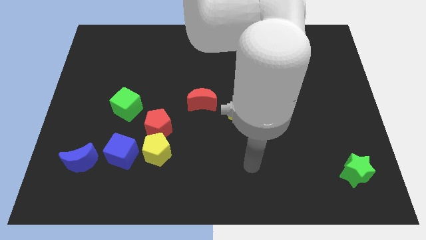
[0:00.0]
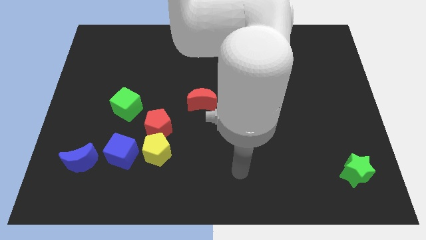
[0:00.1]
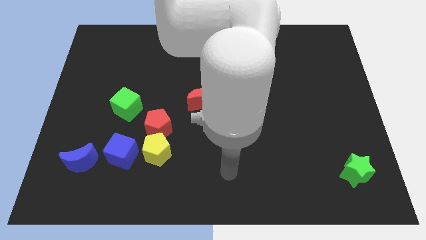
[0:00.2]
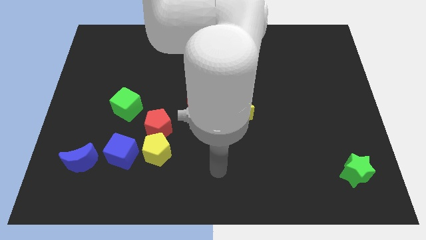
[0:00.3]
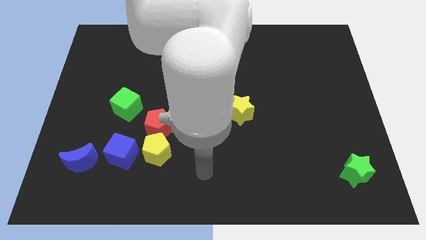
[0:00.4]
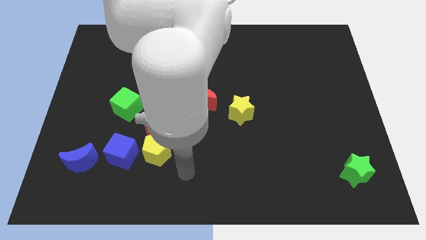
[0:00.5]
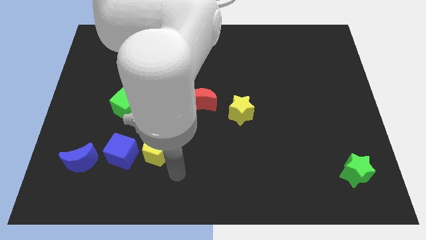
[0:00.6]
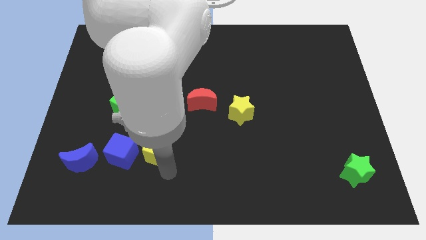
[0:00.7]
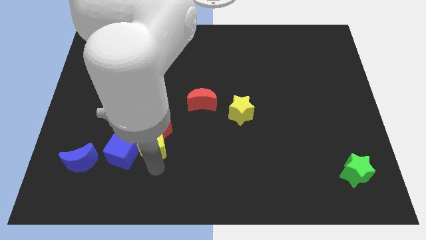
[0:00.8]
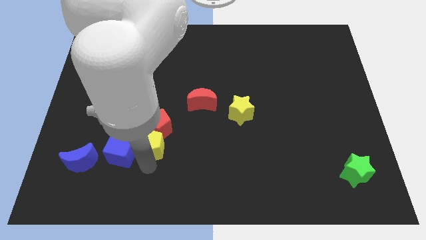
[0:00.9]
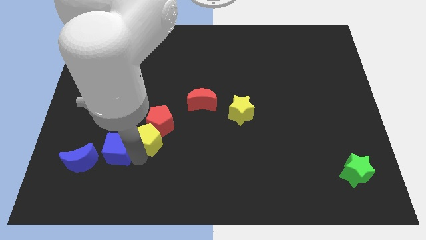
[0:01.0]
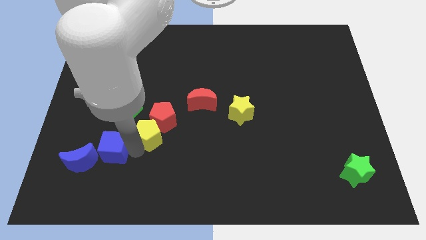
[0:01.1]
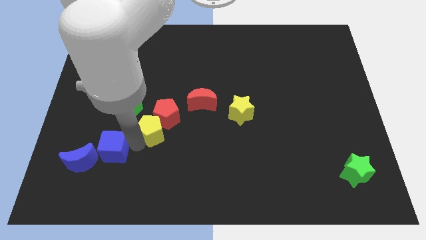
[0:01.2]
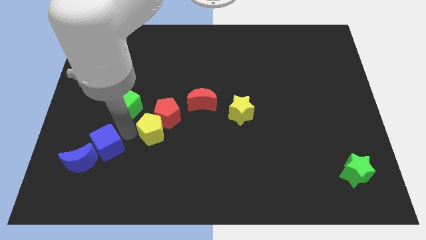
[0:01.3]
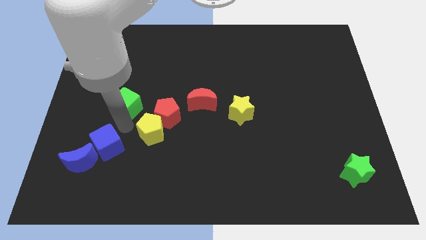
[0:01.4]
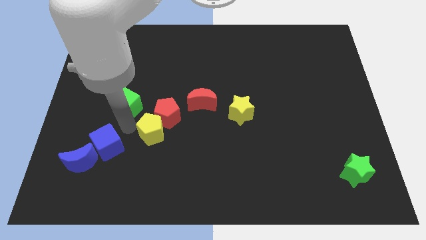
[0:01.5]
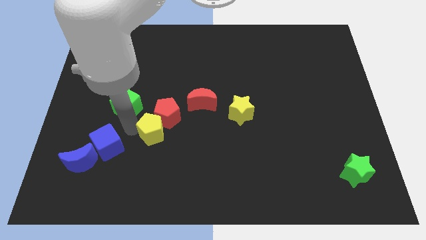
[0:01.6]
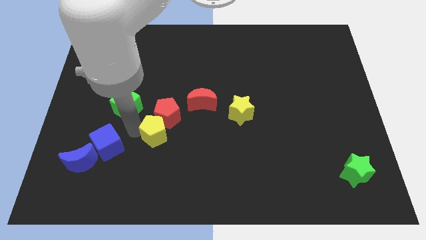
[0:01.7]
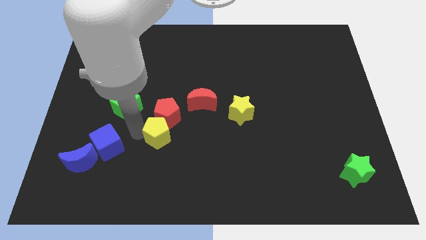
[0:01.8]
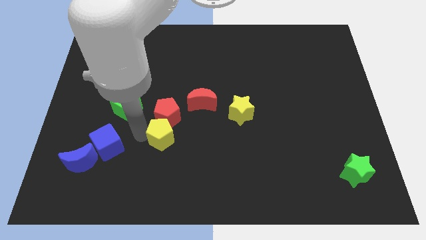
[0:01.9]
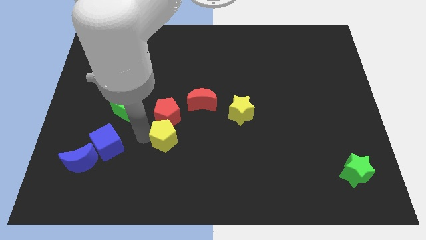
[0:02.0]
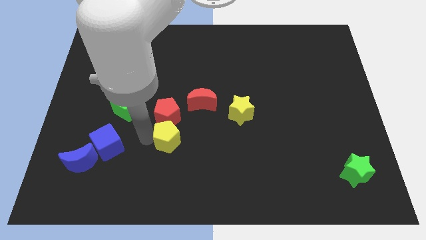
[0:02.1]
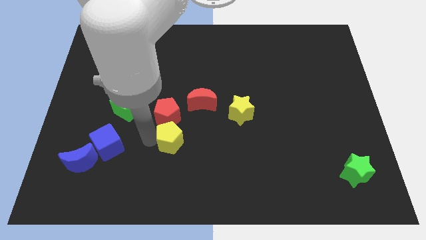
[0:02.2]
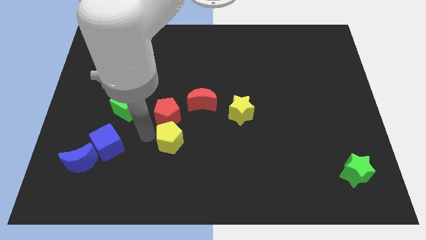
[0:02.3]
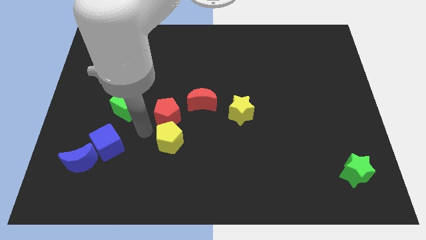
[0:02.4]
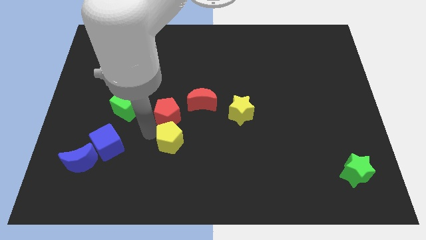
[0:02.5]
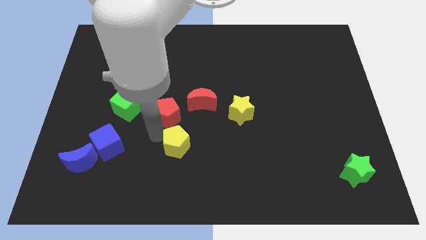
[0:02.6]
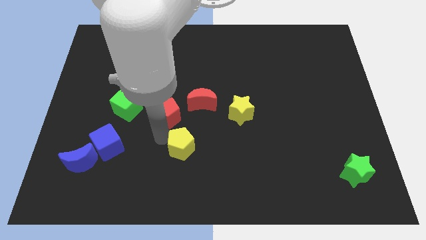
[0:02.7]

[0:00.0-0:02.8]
move the yellow pentagon away from the red pentagon and blue cube

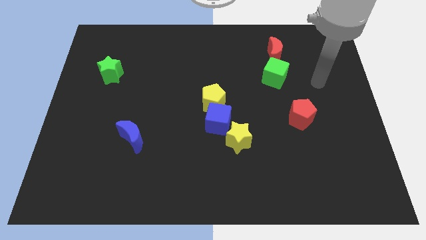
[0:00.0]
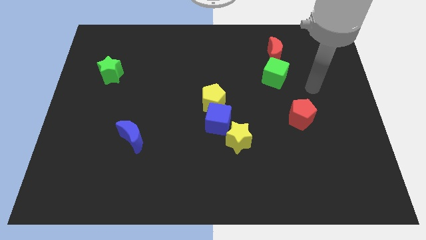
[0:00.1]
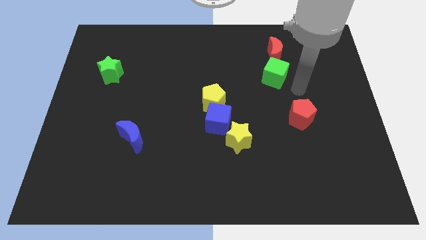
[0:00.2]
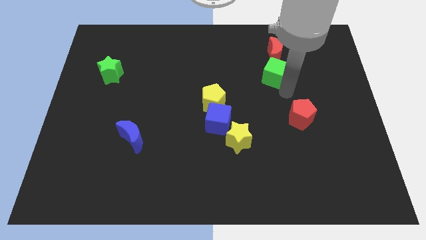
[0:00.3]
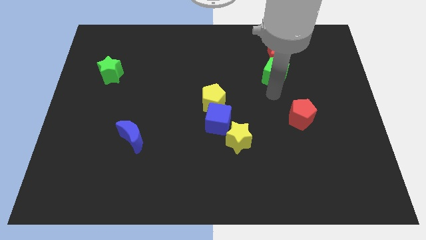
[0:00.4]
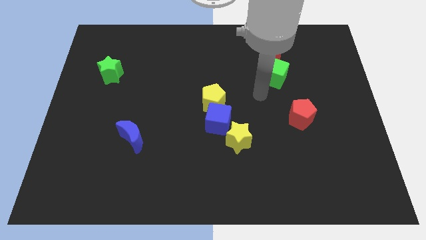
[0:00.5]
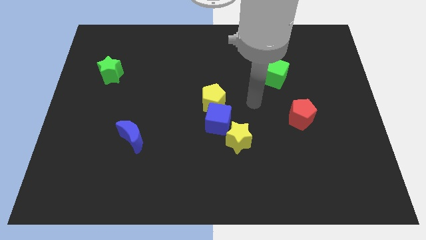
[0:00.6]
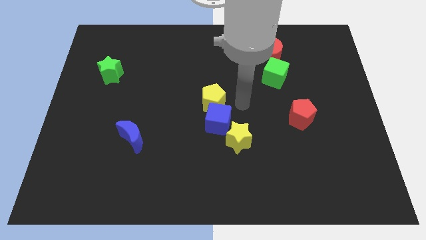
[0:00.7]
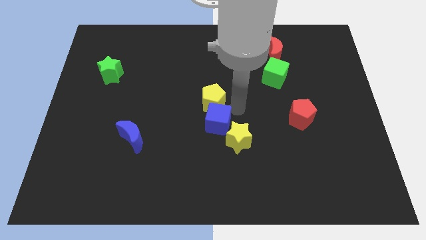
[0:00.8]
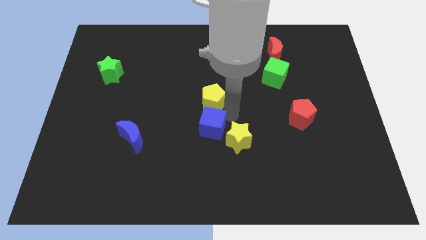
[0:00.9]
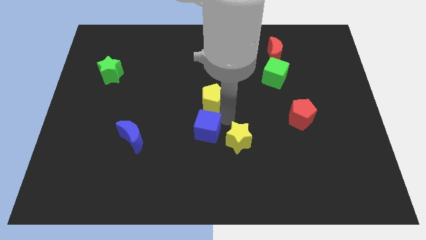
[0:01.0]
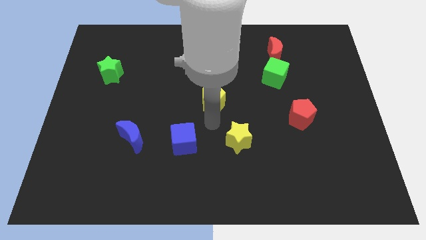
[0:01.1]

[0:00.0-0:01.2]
move the yellow pentagon away from the blue cube

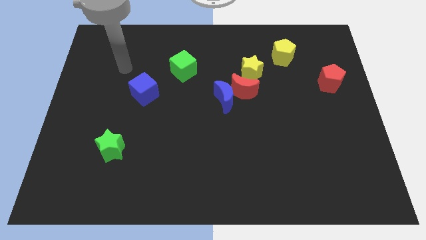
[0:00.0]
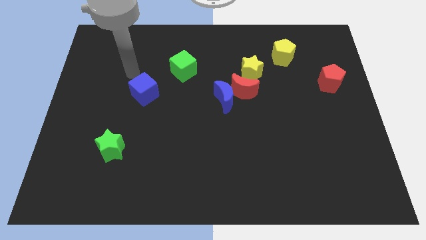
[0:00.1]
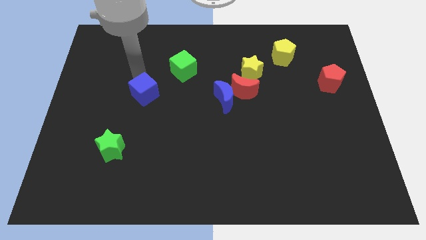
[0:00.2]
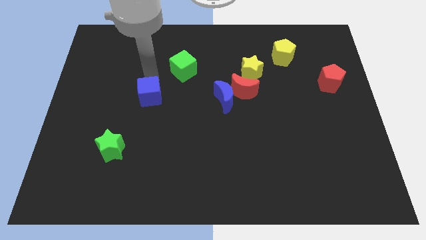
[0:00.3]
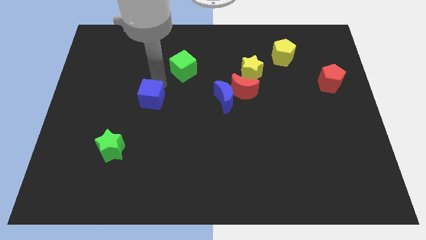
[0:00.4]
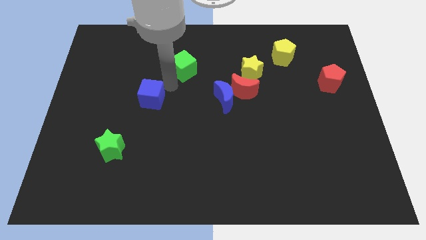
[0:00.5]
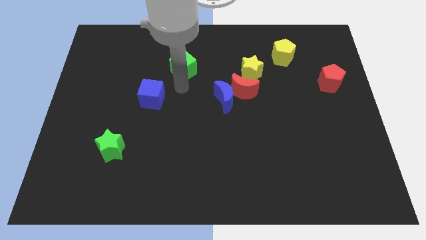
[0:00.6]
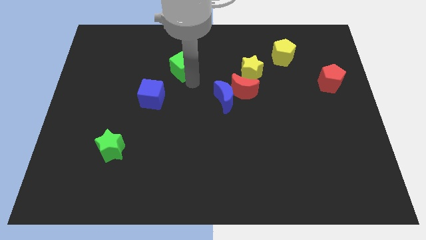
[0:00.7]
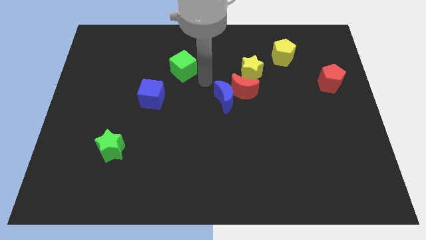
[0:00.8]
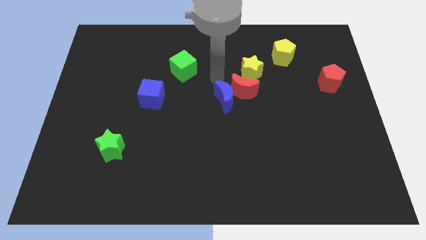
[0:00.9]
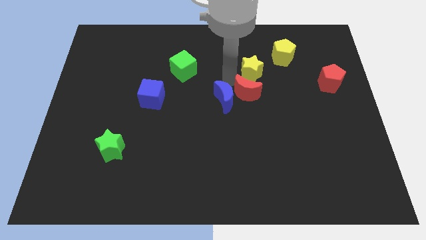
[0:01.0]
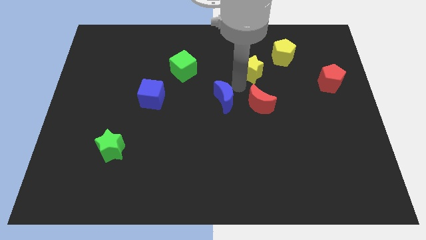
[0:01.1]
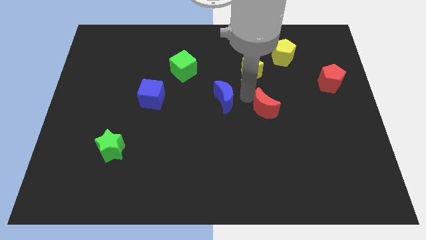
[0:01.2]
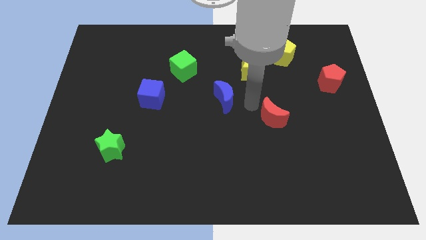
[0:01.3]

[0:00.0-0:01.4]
separate the blue moon from the red moon

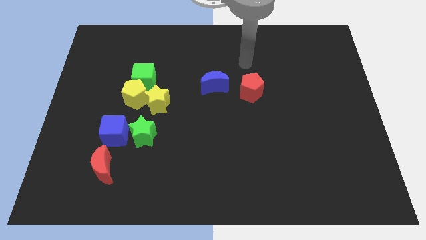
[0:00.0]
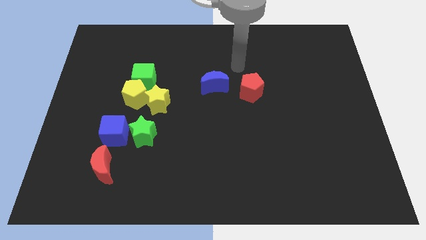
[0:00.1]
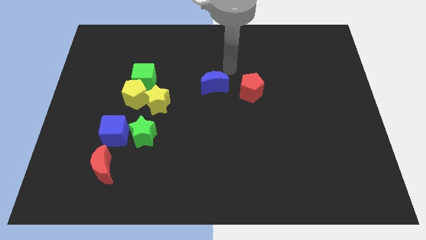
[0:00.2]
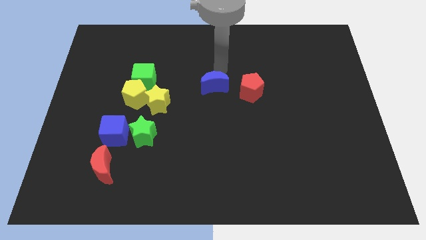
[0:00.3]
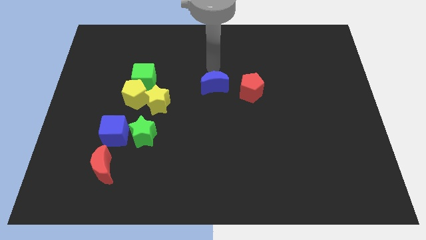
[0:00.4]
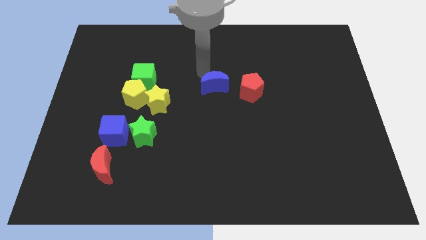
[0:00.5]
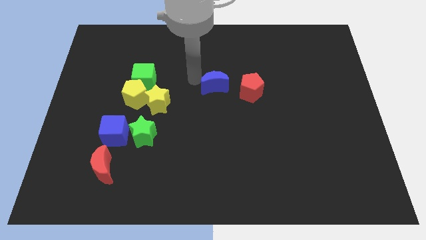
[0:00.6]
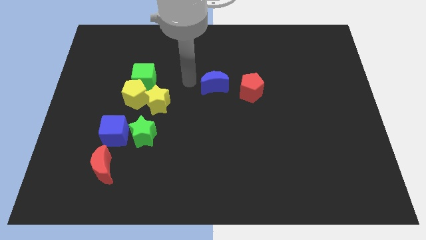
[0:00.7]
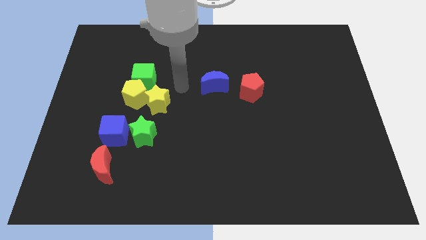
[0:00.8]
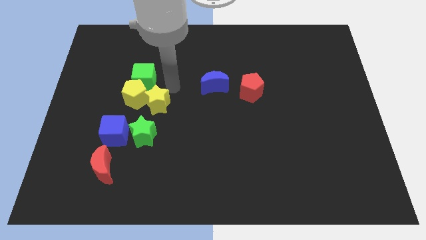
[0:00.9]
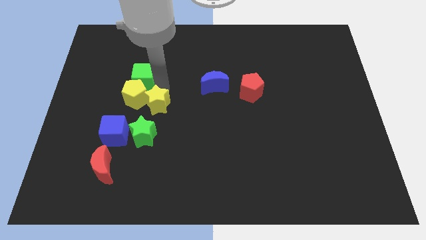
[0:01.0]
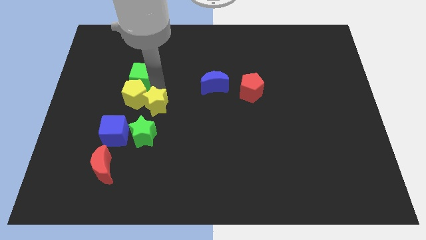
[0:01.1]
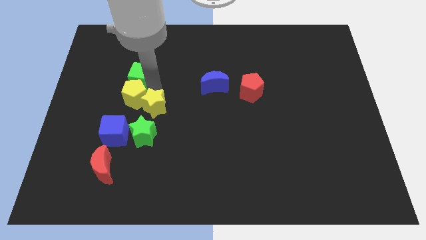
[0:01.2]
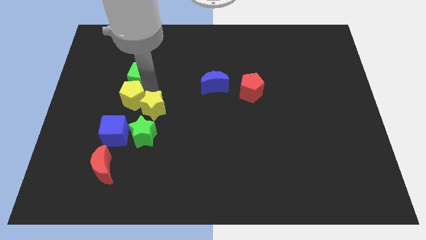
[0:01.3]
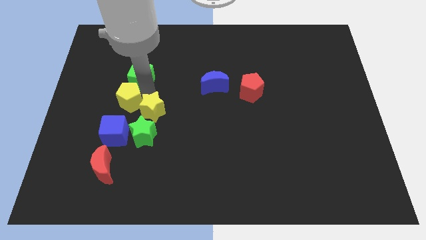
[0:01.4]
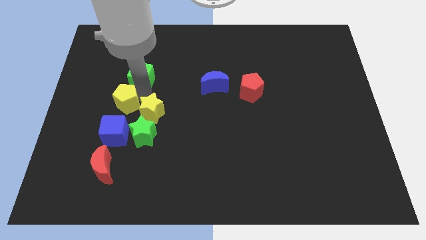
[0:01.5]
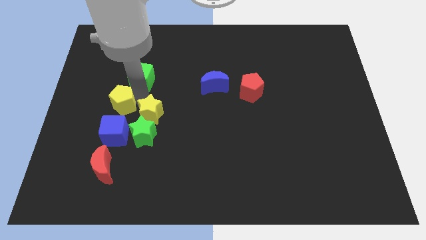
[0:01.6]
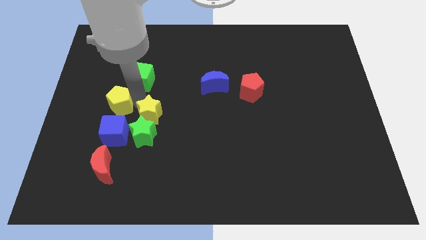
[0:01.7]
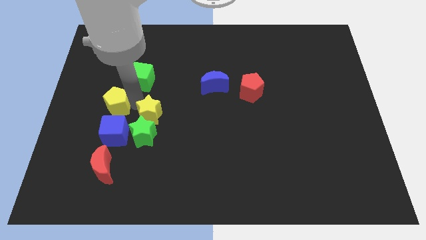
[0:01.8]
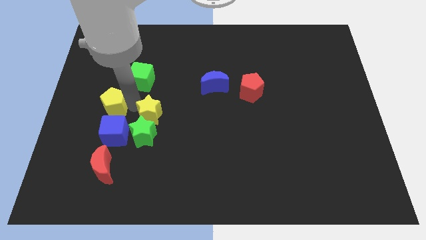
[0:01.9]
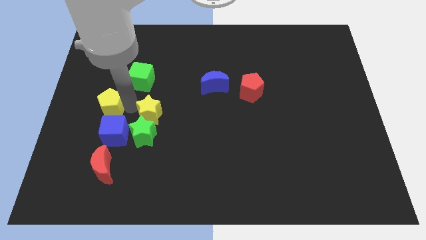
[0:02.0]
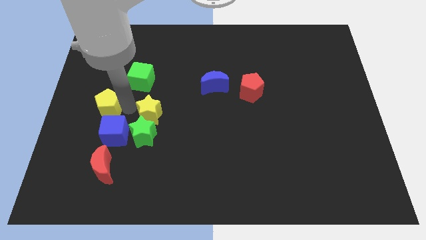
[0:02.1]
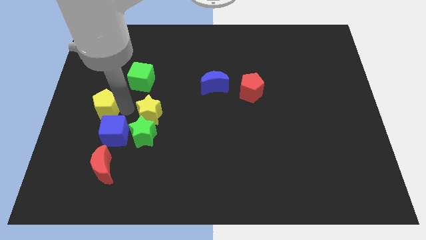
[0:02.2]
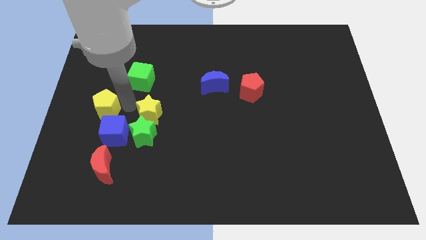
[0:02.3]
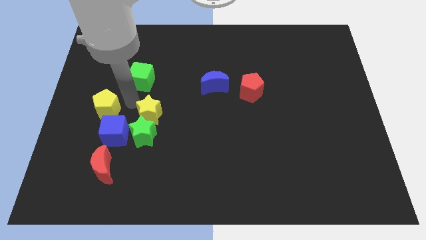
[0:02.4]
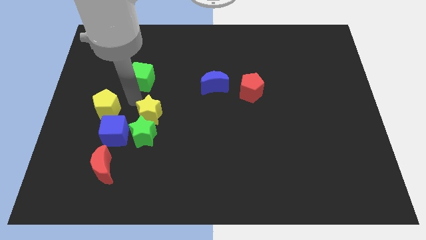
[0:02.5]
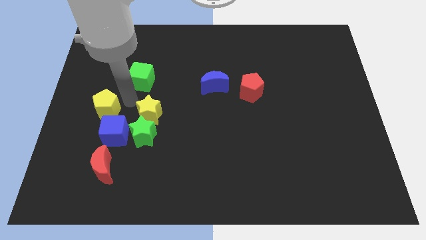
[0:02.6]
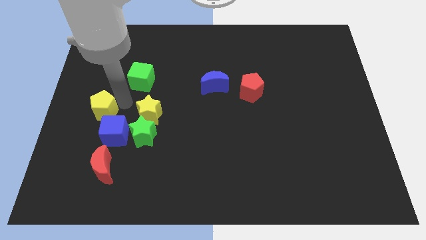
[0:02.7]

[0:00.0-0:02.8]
move the yellow pentagon away from the green cube and yellow star

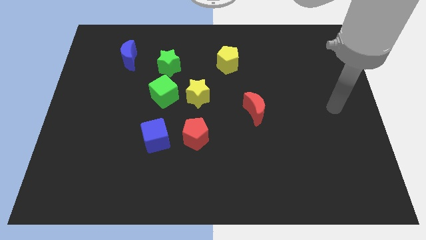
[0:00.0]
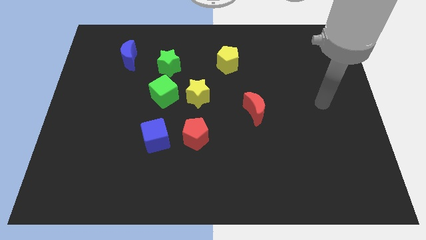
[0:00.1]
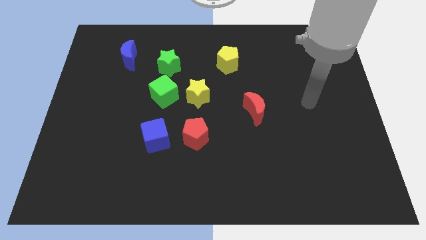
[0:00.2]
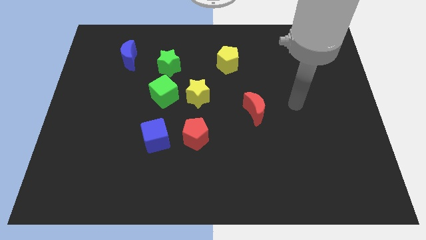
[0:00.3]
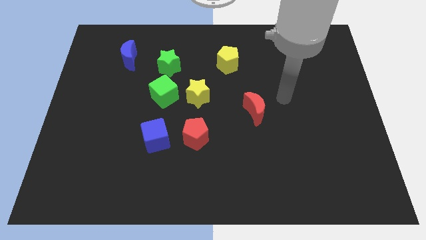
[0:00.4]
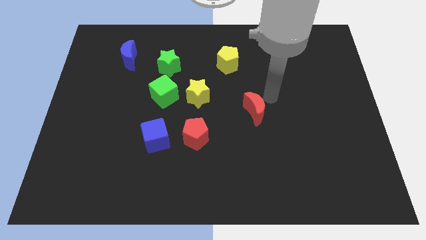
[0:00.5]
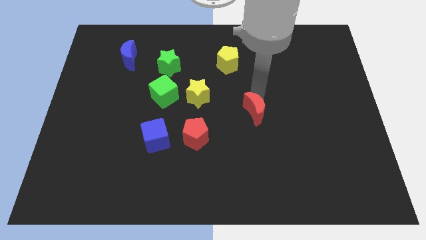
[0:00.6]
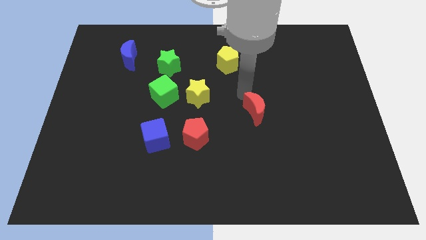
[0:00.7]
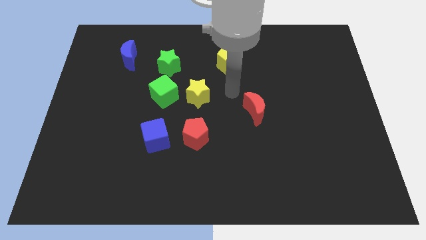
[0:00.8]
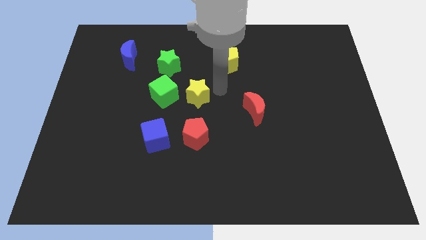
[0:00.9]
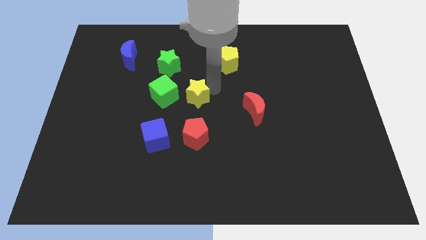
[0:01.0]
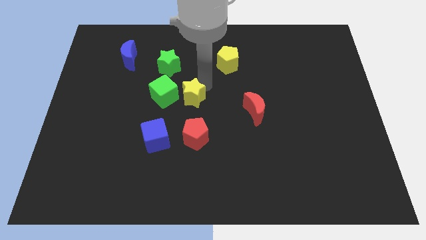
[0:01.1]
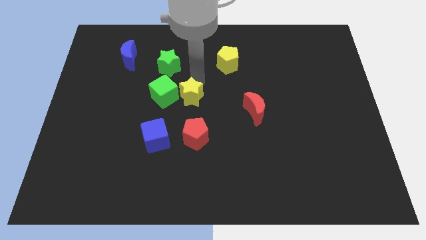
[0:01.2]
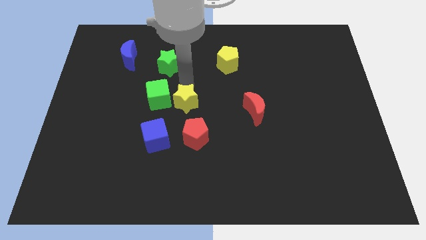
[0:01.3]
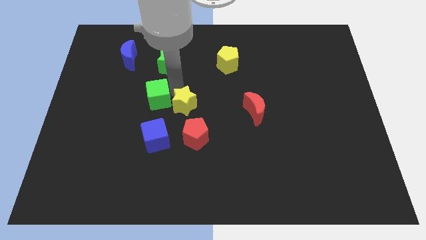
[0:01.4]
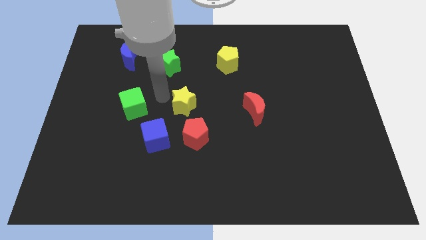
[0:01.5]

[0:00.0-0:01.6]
pull the yellow star apart from the green cube
